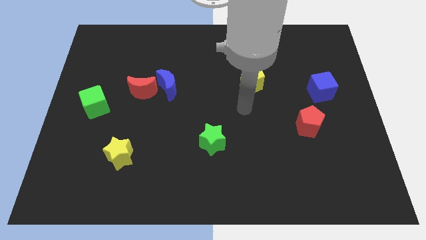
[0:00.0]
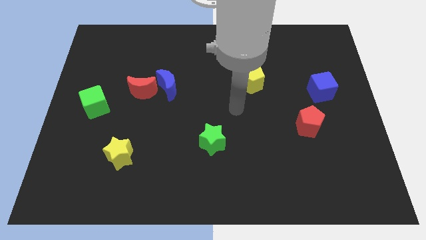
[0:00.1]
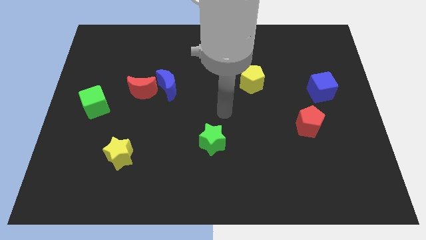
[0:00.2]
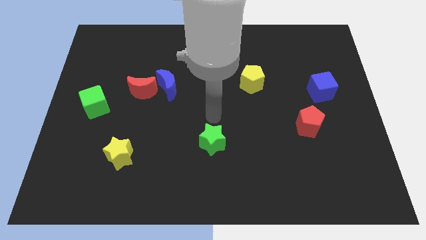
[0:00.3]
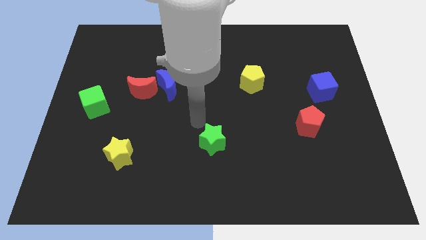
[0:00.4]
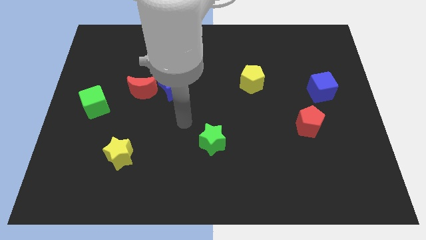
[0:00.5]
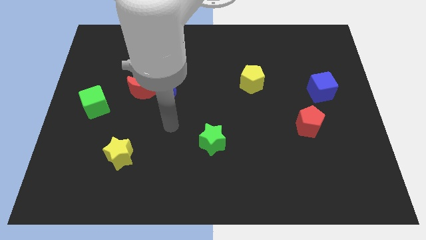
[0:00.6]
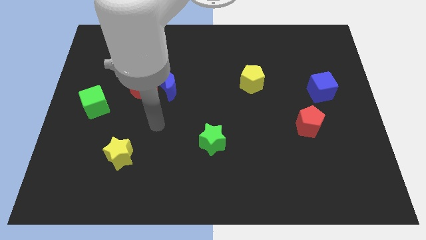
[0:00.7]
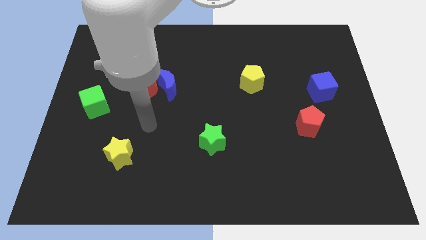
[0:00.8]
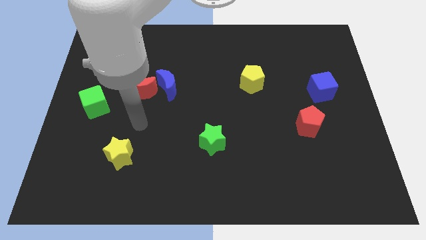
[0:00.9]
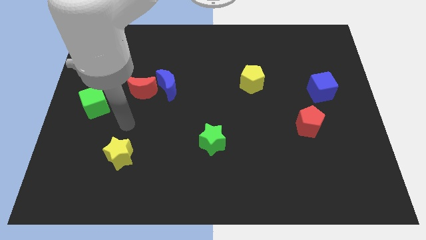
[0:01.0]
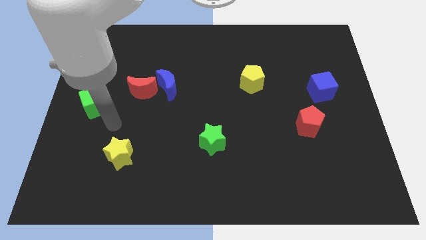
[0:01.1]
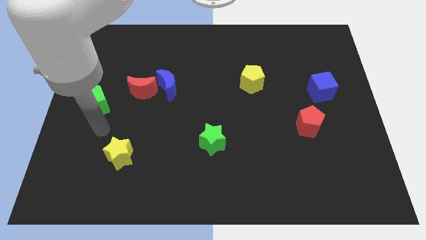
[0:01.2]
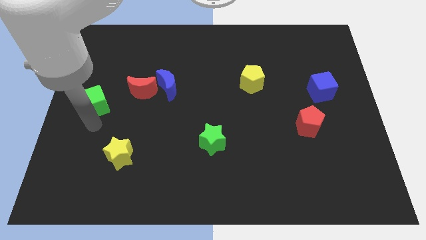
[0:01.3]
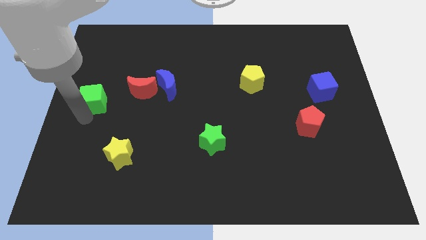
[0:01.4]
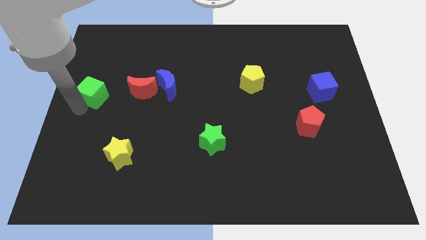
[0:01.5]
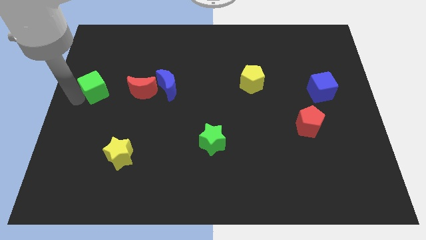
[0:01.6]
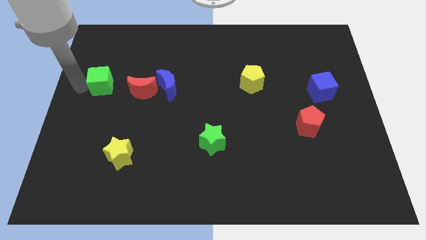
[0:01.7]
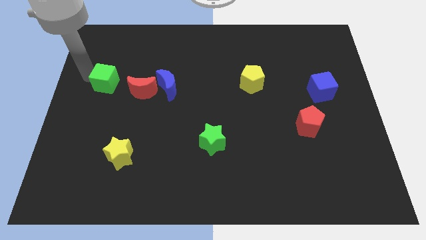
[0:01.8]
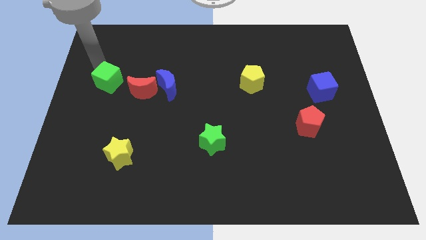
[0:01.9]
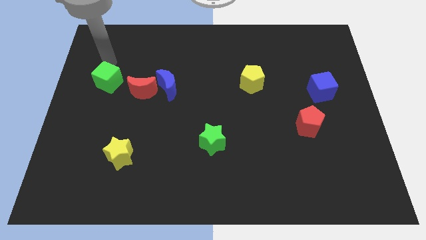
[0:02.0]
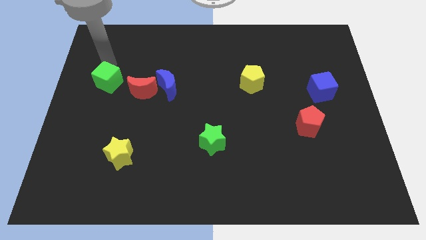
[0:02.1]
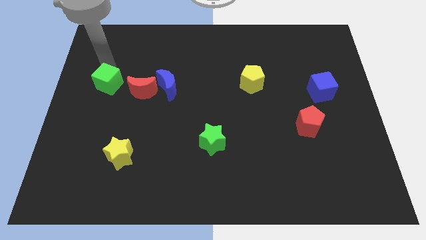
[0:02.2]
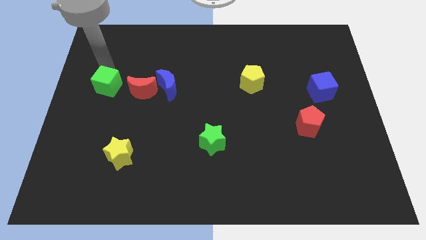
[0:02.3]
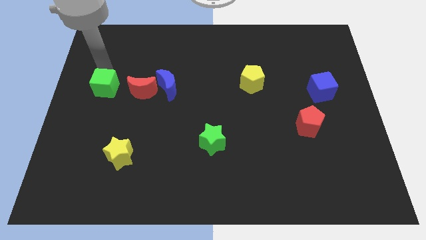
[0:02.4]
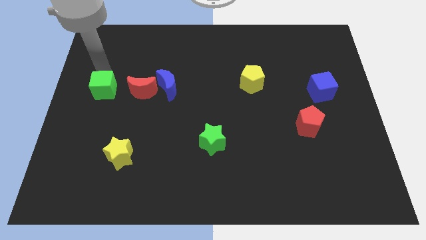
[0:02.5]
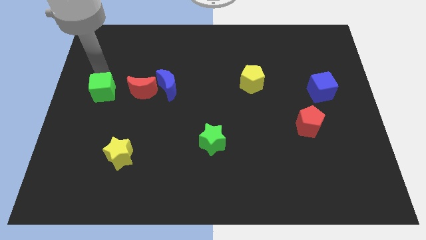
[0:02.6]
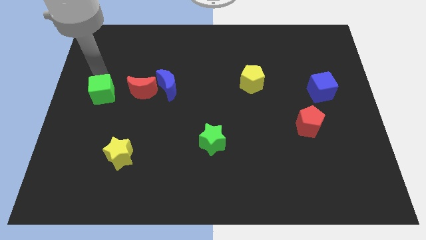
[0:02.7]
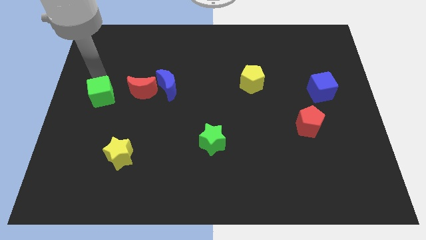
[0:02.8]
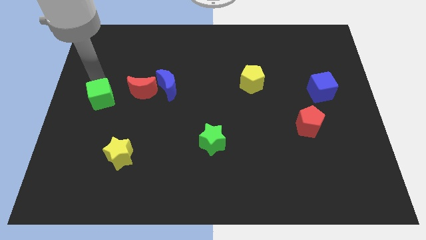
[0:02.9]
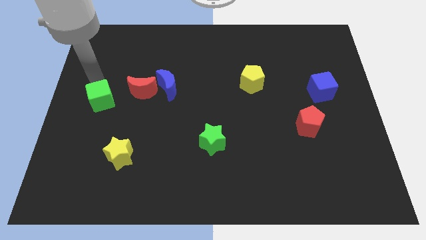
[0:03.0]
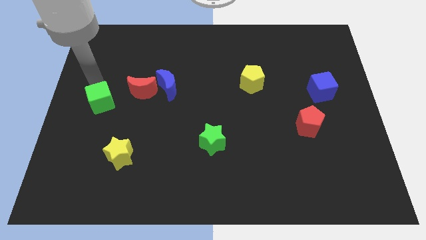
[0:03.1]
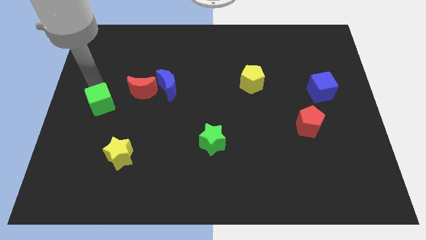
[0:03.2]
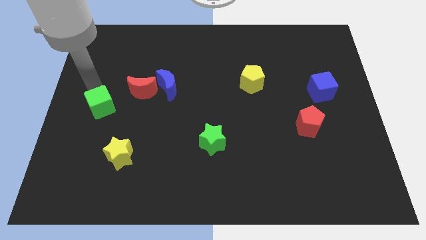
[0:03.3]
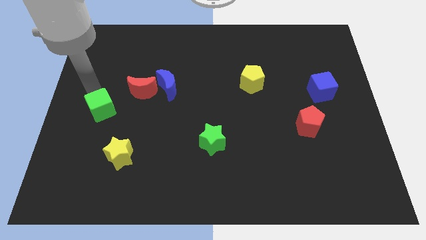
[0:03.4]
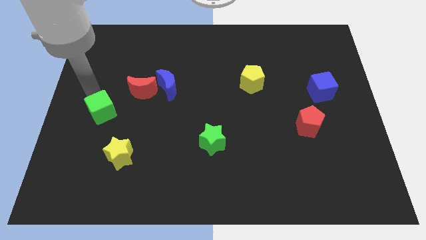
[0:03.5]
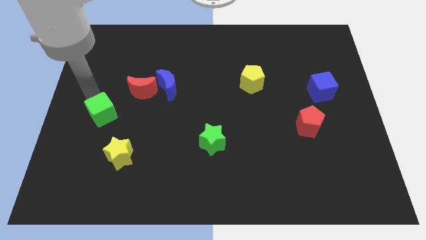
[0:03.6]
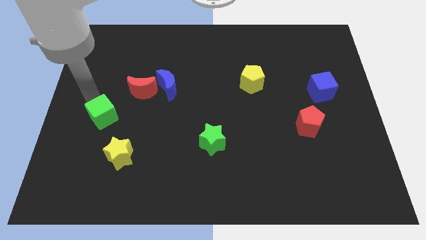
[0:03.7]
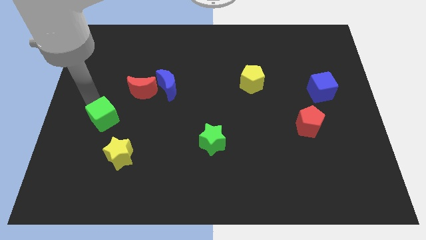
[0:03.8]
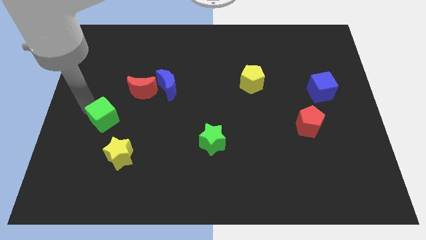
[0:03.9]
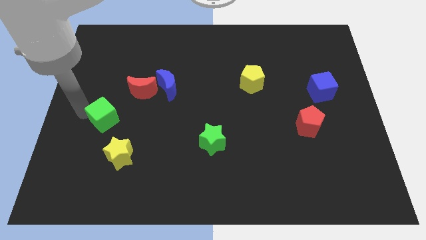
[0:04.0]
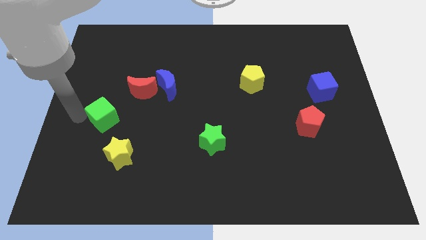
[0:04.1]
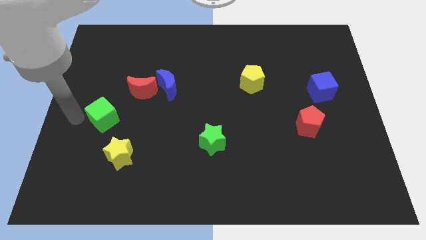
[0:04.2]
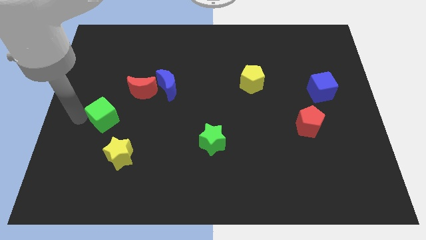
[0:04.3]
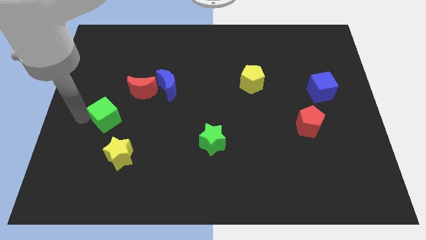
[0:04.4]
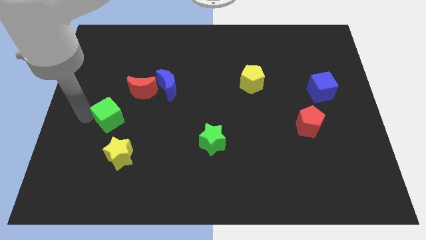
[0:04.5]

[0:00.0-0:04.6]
push the green cube to the top side of the yellow star

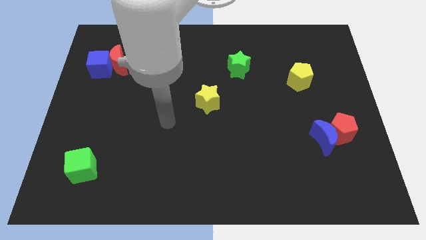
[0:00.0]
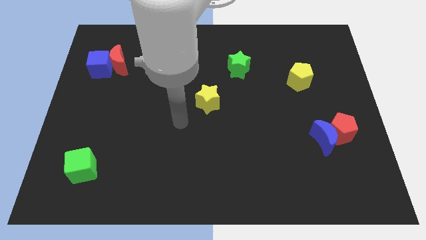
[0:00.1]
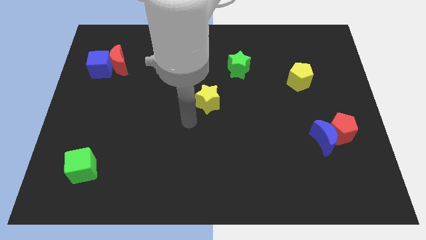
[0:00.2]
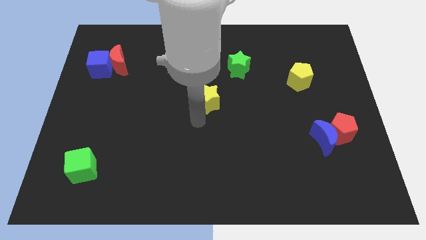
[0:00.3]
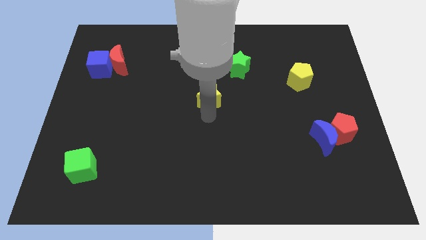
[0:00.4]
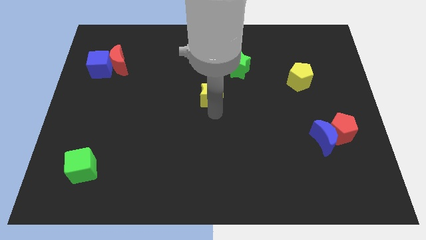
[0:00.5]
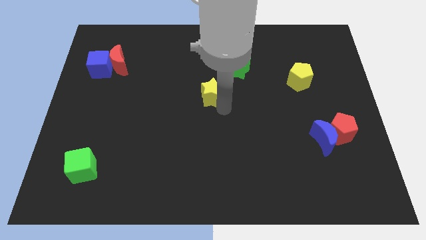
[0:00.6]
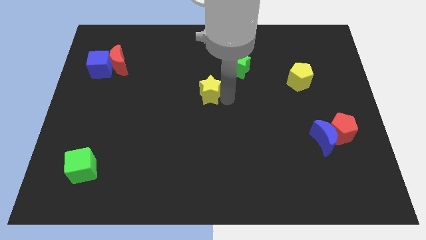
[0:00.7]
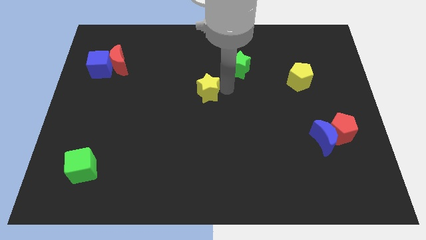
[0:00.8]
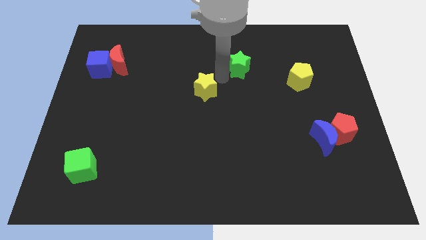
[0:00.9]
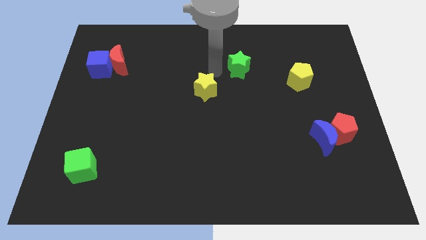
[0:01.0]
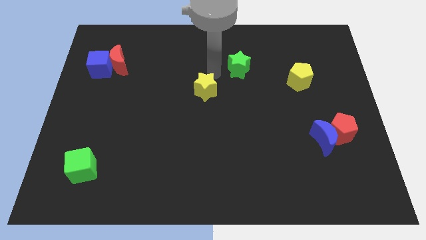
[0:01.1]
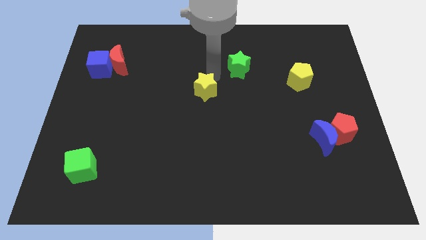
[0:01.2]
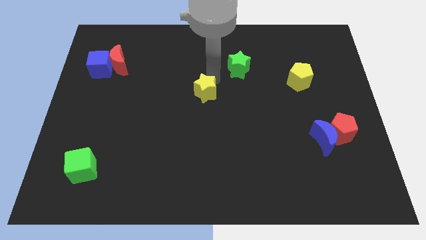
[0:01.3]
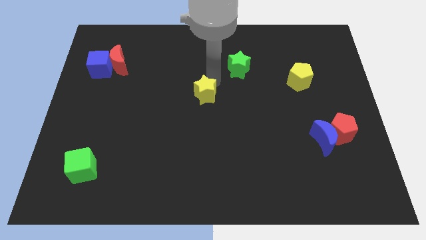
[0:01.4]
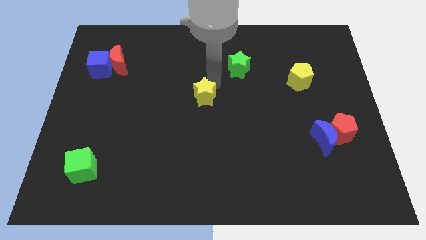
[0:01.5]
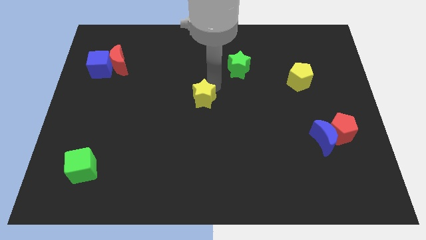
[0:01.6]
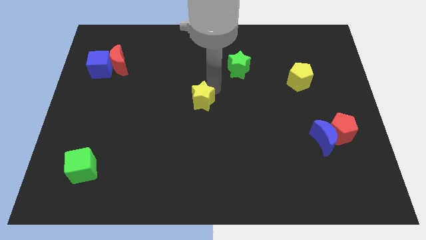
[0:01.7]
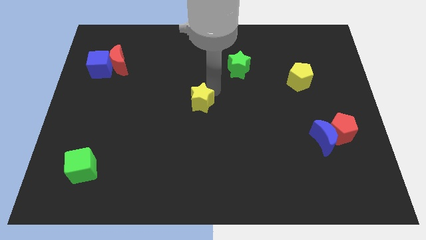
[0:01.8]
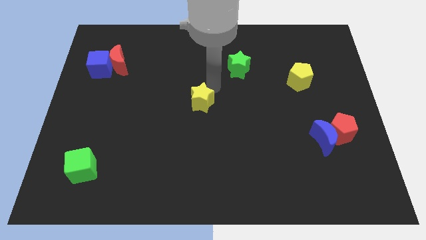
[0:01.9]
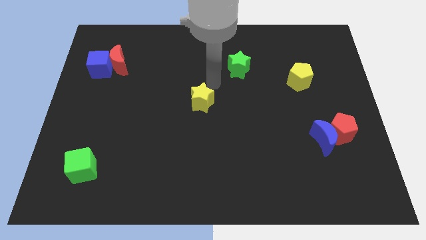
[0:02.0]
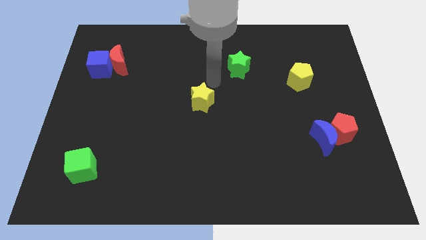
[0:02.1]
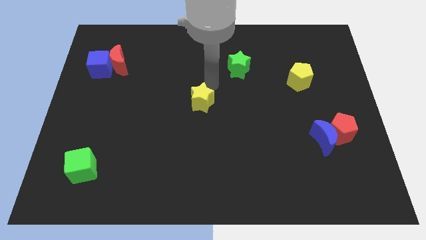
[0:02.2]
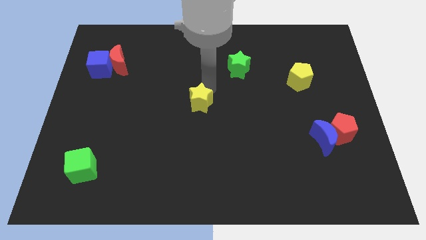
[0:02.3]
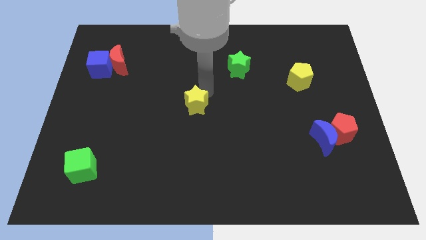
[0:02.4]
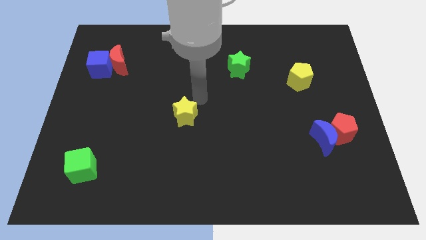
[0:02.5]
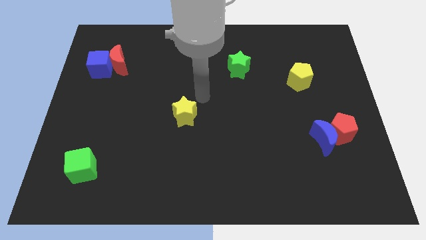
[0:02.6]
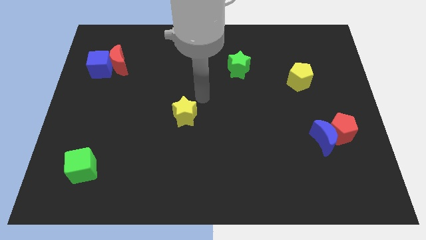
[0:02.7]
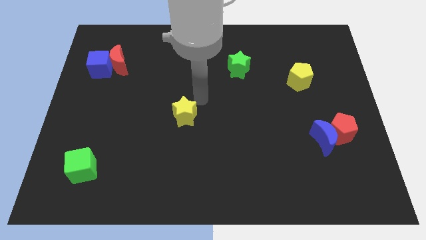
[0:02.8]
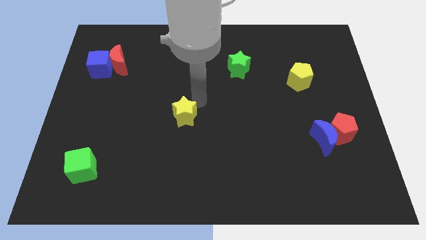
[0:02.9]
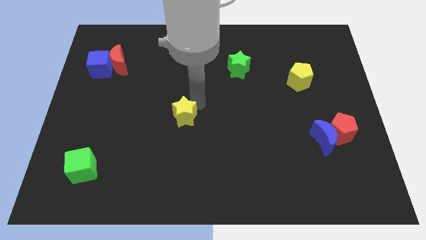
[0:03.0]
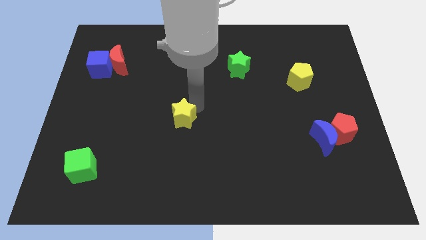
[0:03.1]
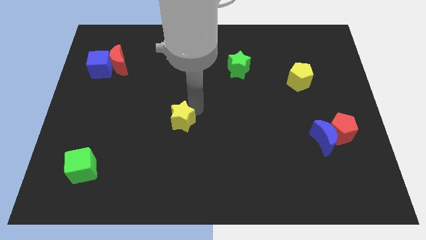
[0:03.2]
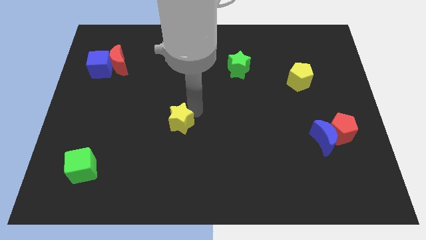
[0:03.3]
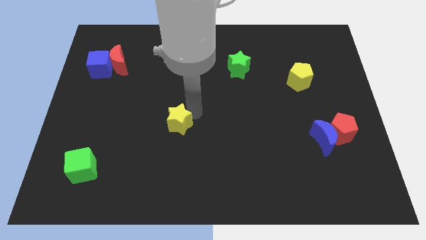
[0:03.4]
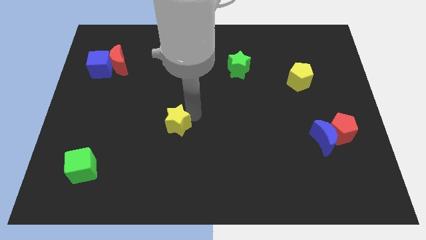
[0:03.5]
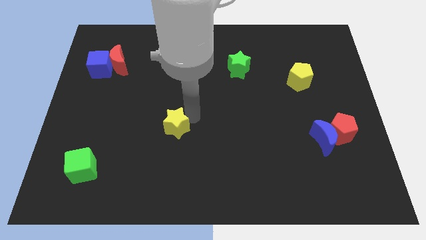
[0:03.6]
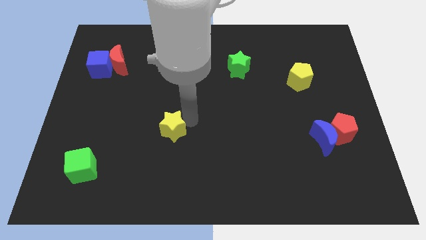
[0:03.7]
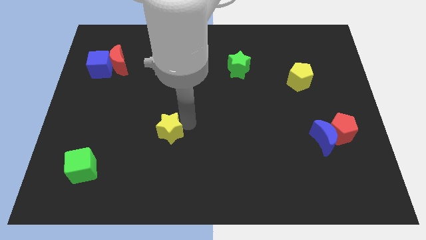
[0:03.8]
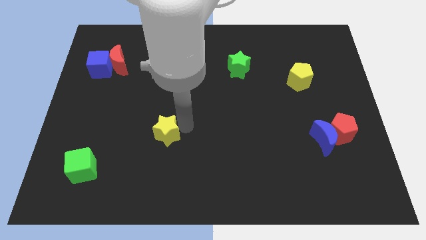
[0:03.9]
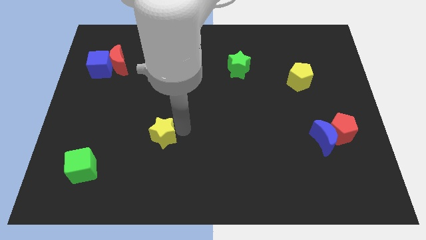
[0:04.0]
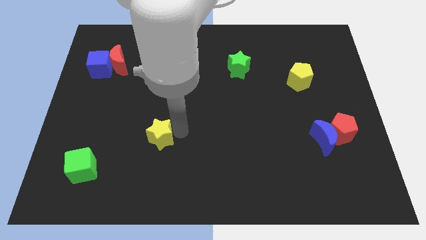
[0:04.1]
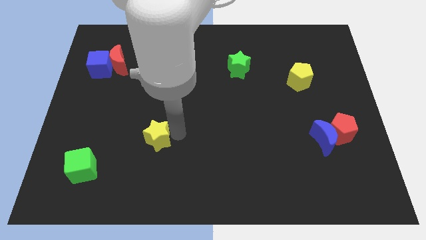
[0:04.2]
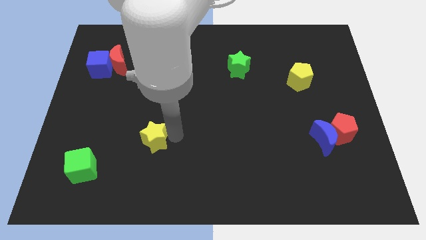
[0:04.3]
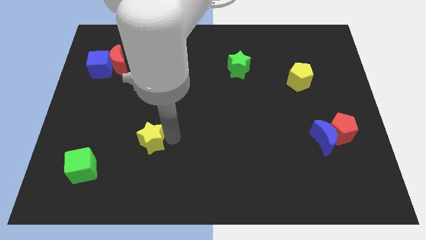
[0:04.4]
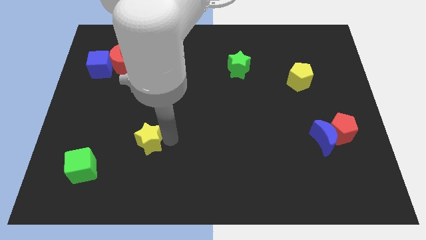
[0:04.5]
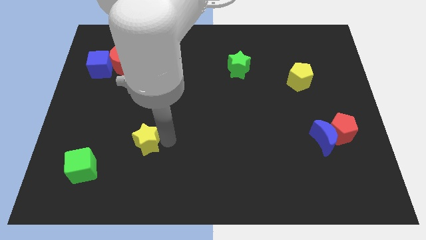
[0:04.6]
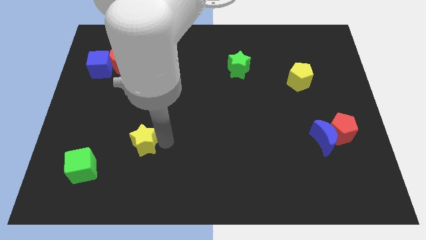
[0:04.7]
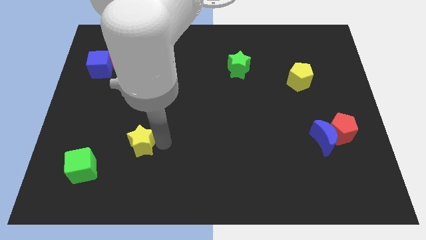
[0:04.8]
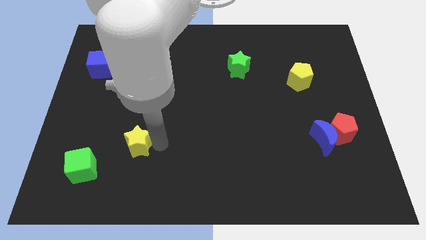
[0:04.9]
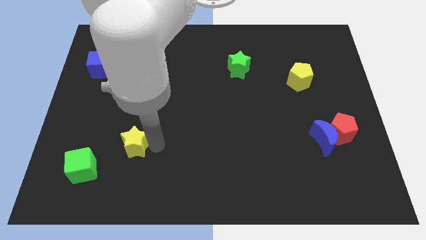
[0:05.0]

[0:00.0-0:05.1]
move the yellow star to the top right of the green cube
